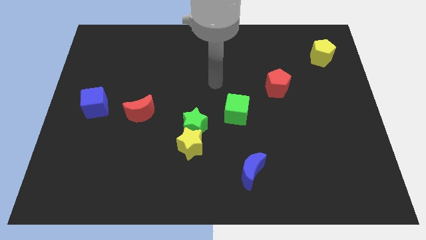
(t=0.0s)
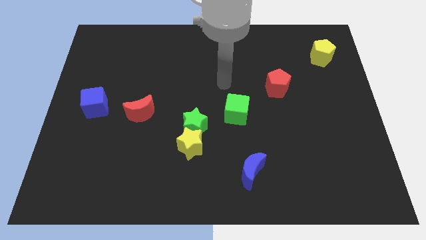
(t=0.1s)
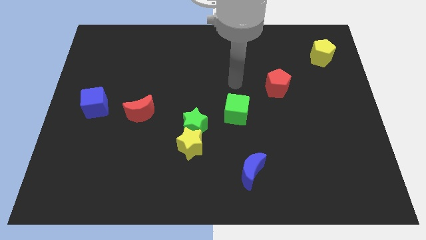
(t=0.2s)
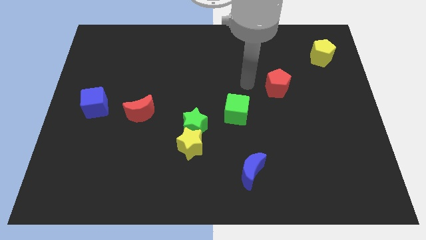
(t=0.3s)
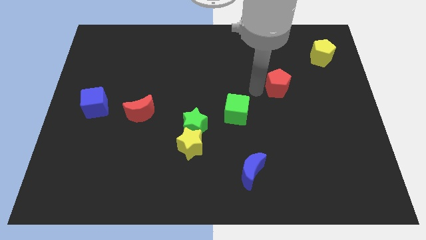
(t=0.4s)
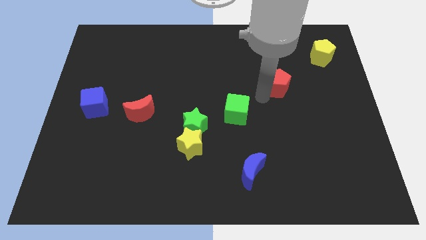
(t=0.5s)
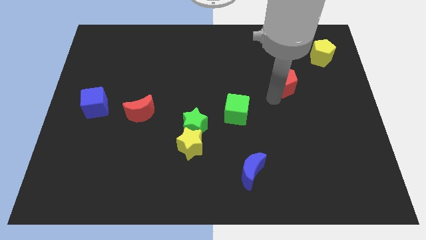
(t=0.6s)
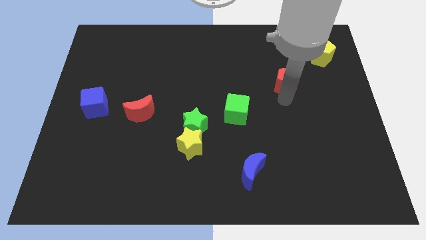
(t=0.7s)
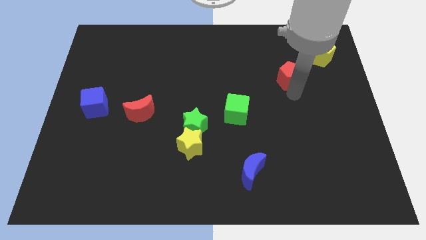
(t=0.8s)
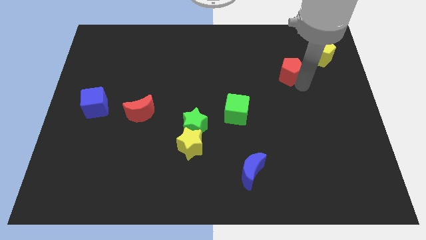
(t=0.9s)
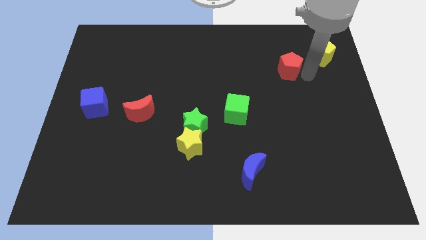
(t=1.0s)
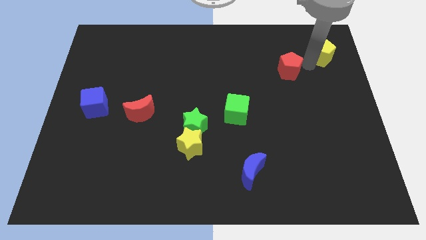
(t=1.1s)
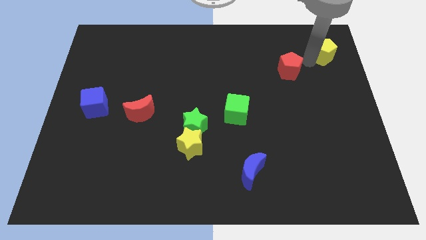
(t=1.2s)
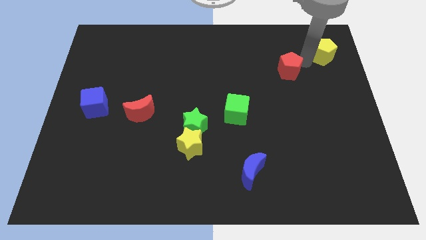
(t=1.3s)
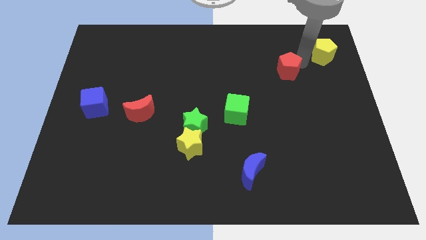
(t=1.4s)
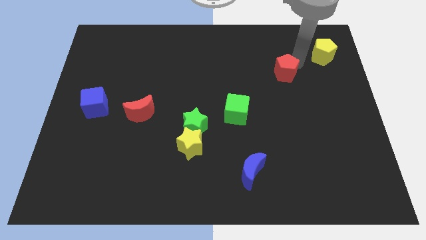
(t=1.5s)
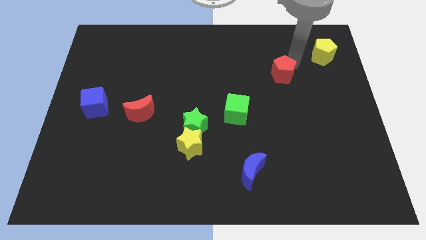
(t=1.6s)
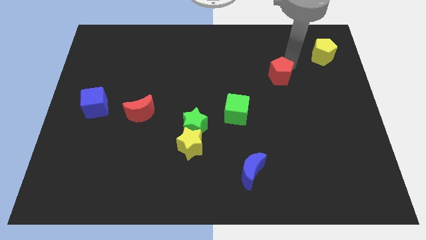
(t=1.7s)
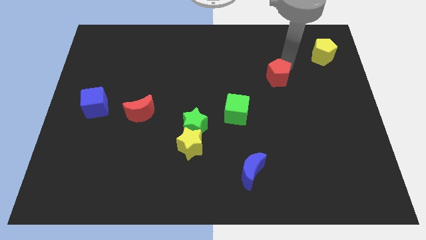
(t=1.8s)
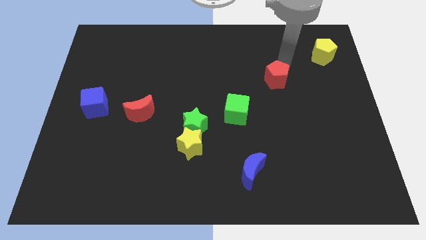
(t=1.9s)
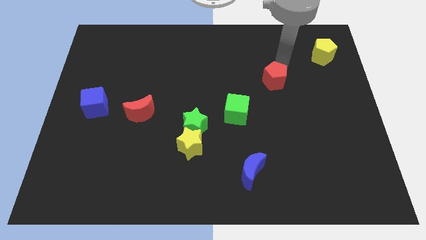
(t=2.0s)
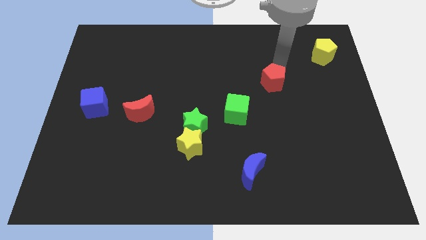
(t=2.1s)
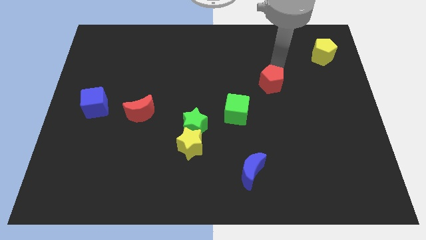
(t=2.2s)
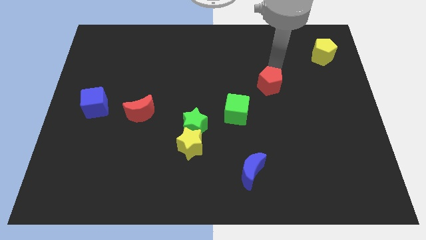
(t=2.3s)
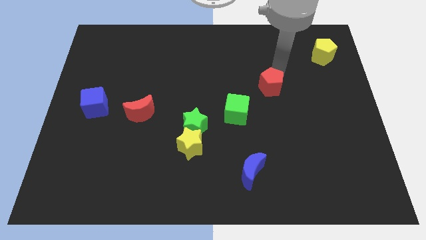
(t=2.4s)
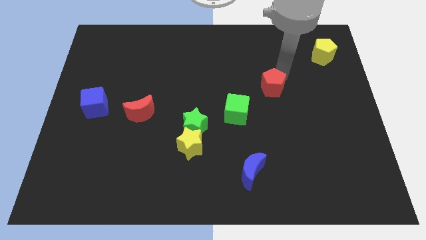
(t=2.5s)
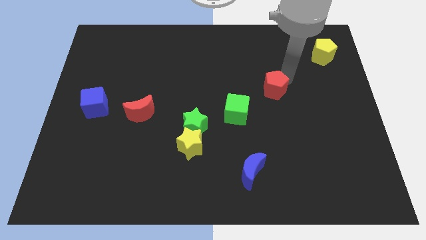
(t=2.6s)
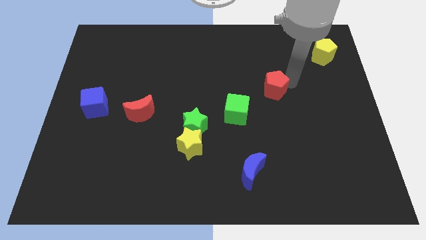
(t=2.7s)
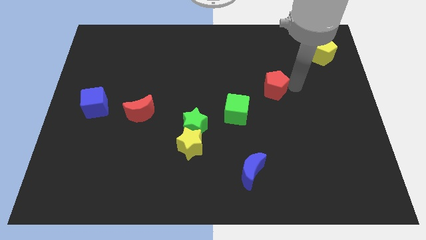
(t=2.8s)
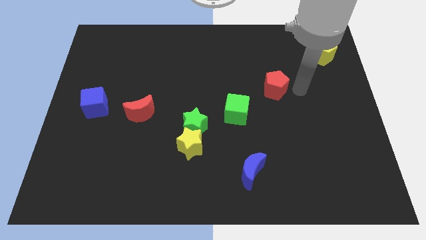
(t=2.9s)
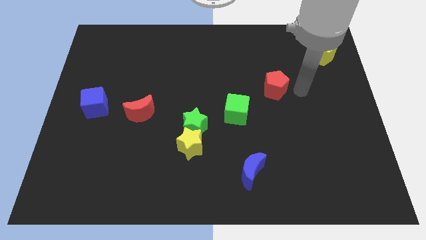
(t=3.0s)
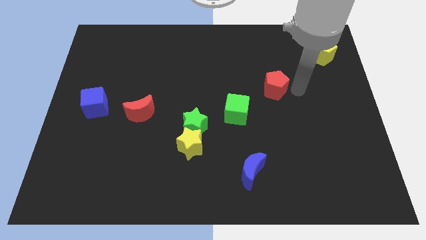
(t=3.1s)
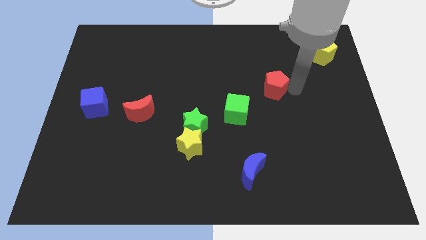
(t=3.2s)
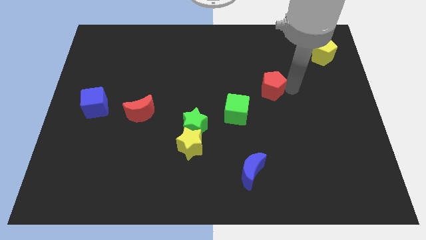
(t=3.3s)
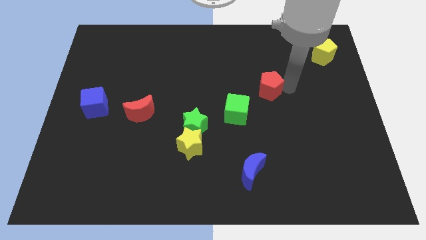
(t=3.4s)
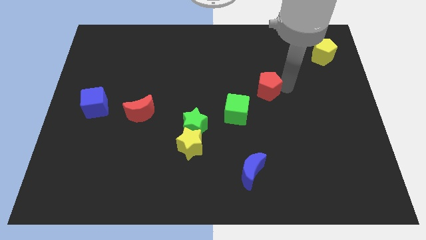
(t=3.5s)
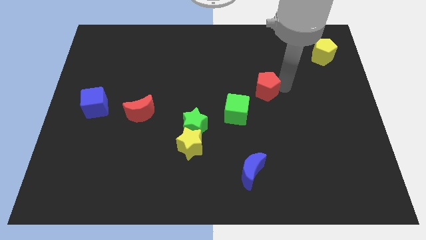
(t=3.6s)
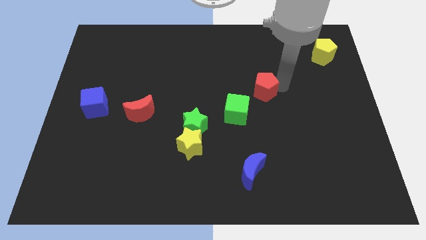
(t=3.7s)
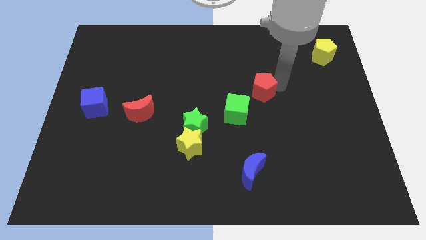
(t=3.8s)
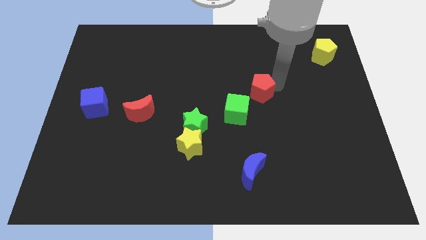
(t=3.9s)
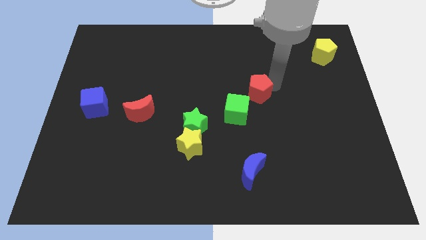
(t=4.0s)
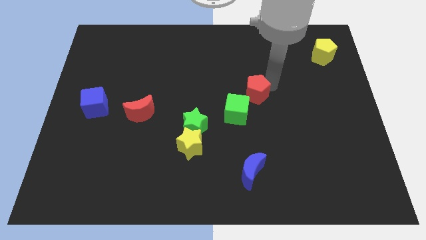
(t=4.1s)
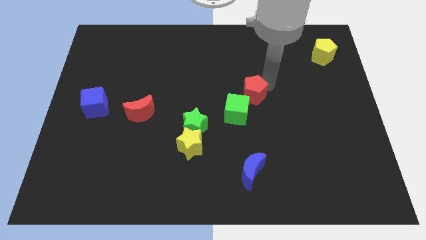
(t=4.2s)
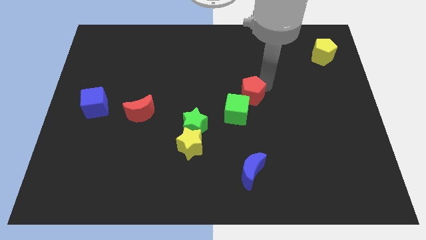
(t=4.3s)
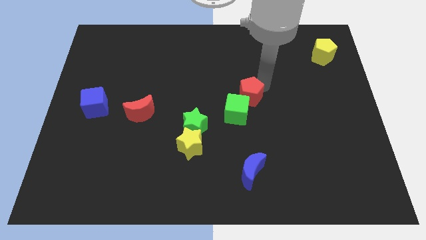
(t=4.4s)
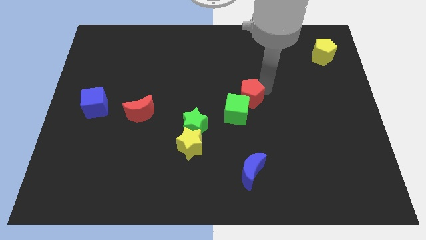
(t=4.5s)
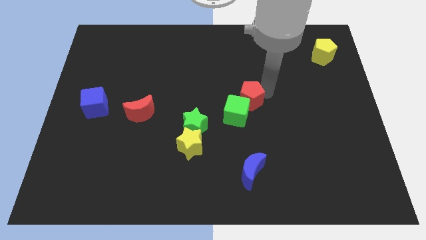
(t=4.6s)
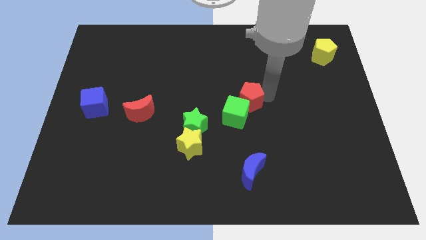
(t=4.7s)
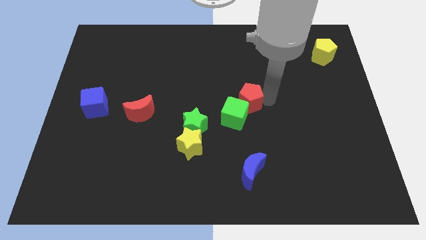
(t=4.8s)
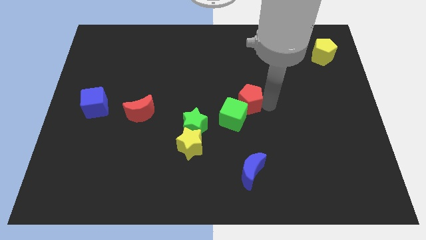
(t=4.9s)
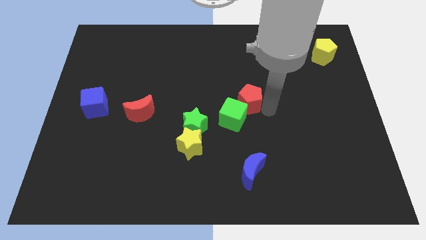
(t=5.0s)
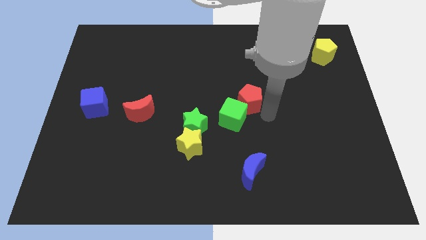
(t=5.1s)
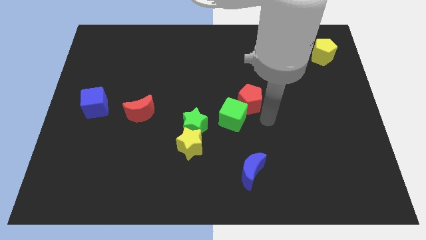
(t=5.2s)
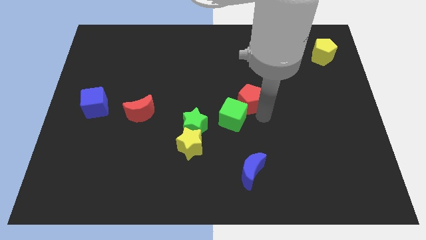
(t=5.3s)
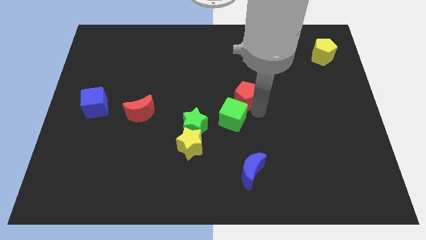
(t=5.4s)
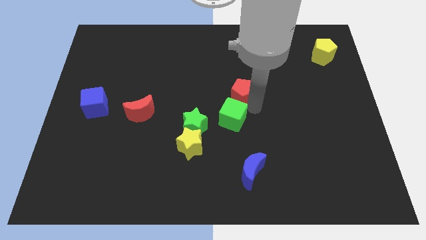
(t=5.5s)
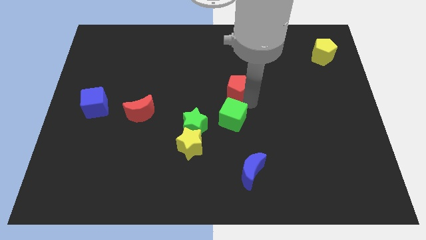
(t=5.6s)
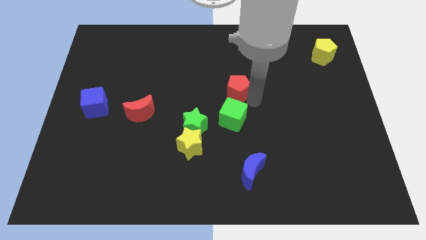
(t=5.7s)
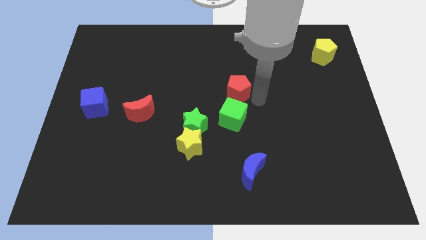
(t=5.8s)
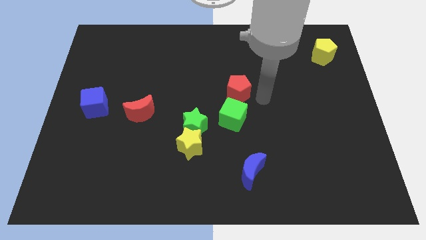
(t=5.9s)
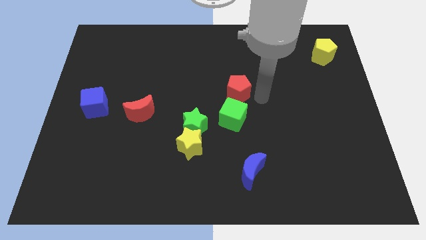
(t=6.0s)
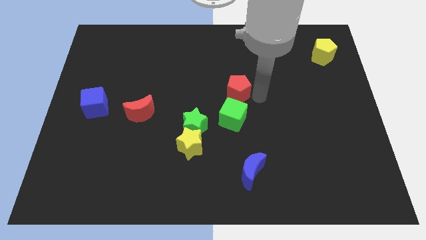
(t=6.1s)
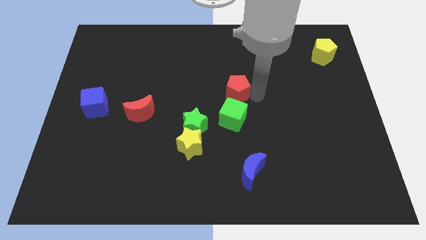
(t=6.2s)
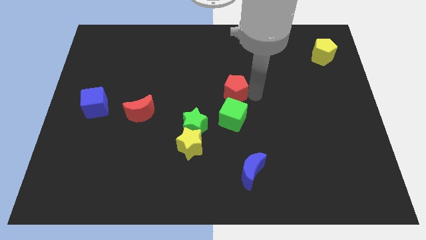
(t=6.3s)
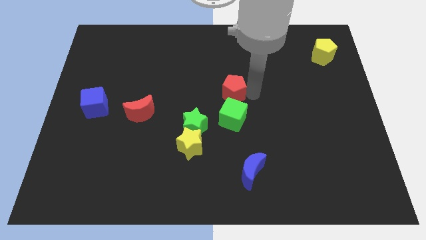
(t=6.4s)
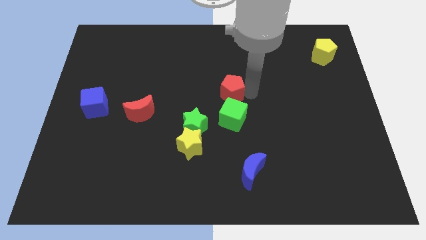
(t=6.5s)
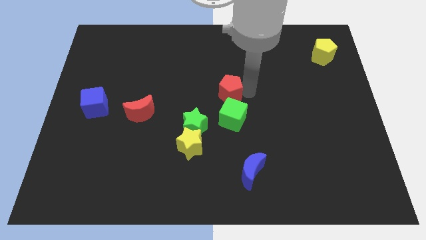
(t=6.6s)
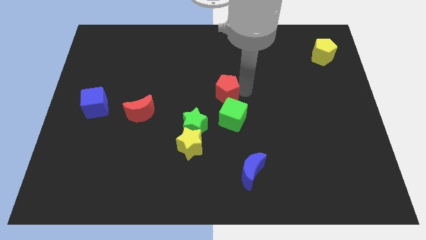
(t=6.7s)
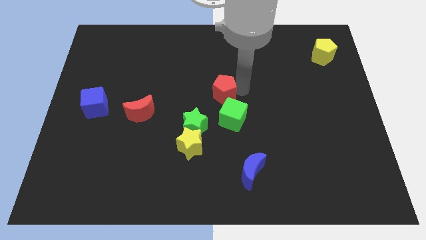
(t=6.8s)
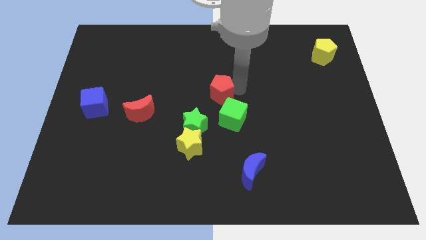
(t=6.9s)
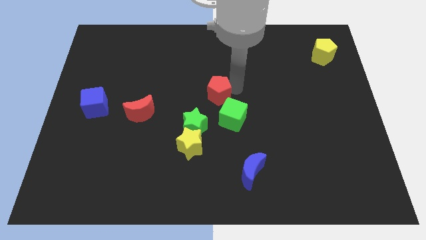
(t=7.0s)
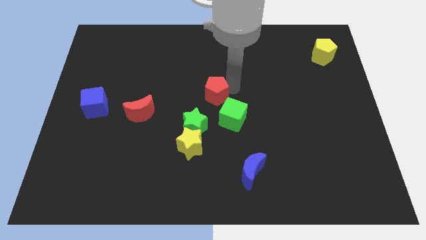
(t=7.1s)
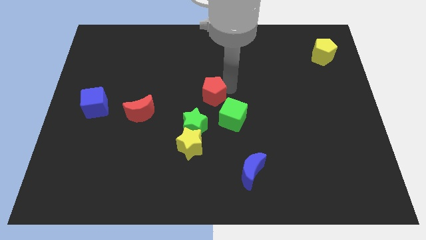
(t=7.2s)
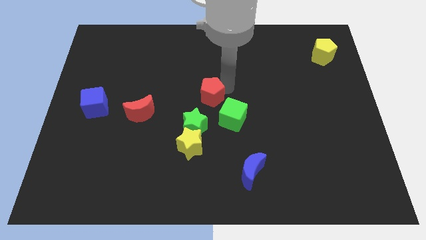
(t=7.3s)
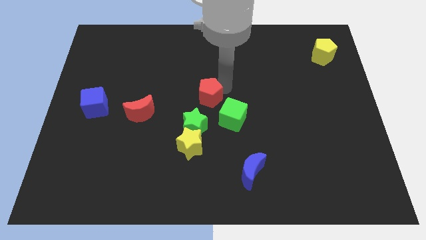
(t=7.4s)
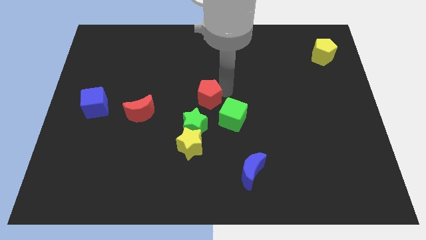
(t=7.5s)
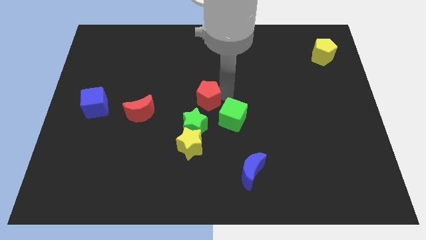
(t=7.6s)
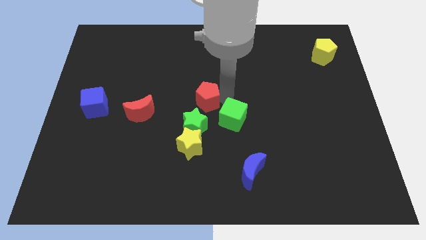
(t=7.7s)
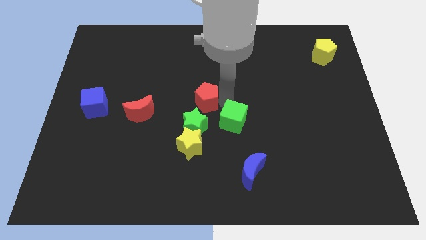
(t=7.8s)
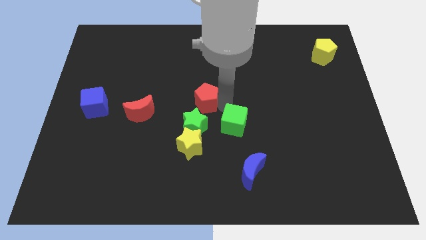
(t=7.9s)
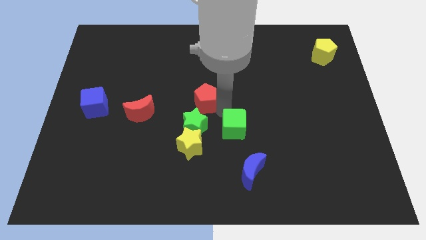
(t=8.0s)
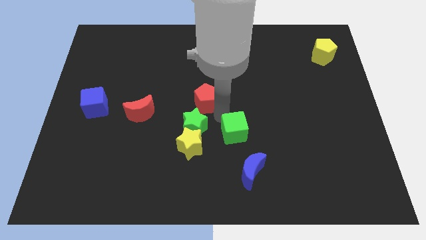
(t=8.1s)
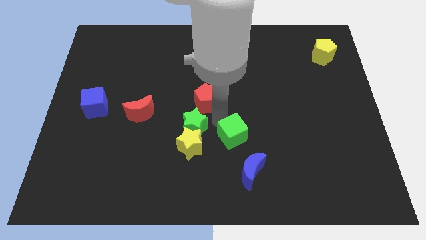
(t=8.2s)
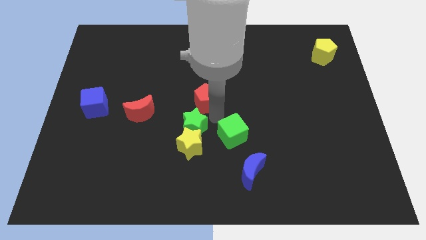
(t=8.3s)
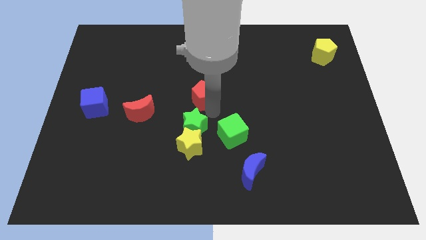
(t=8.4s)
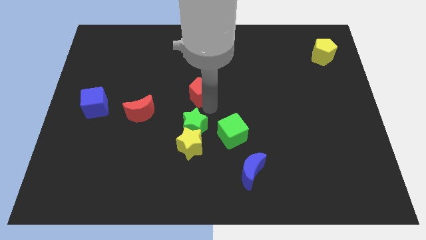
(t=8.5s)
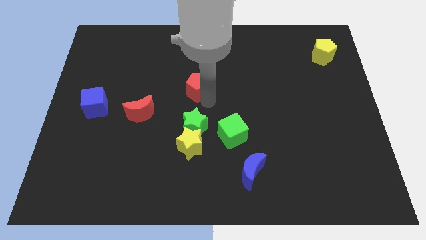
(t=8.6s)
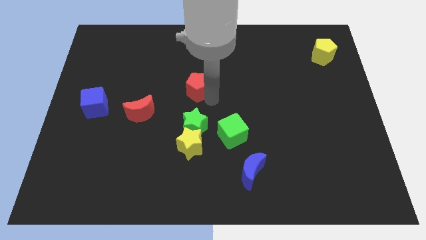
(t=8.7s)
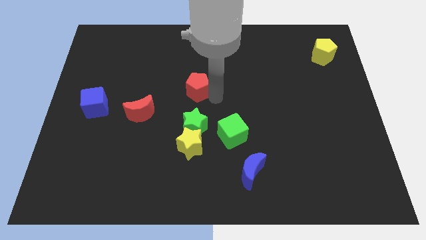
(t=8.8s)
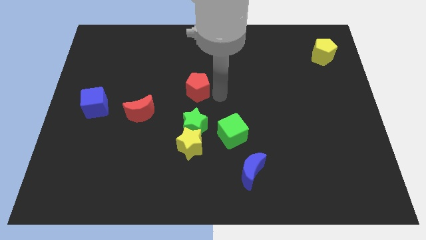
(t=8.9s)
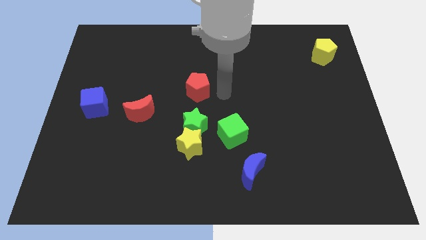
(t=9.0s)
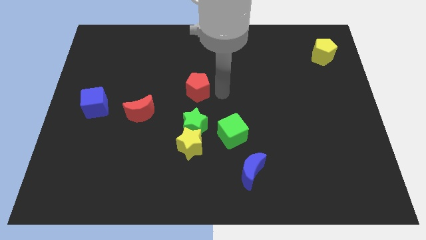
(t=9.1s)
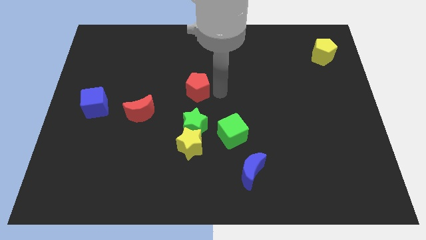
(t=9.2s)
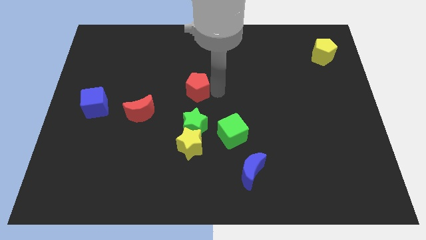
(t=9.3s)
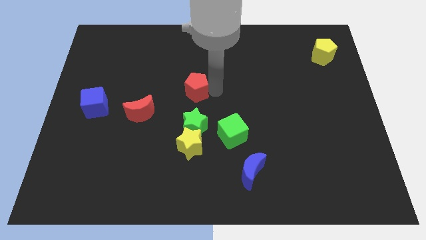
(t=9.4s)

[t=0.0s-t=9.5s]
move the red pentagon left
